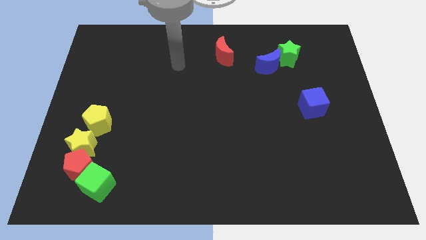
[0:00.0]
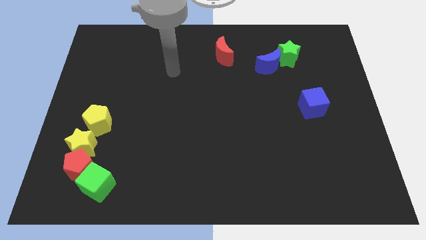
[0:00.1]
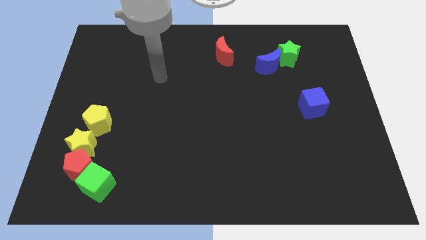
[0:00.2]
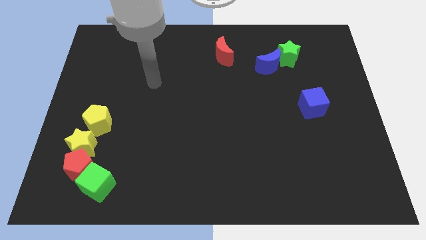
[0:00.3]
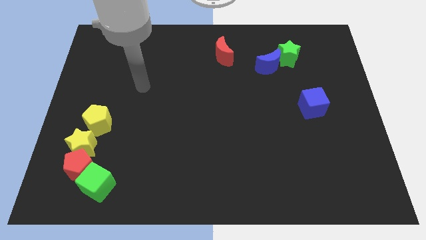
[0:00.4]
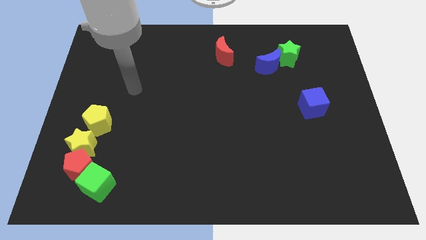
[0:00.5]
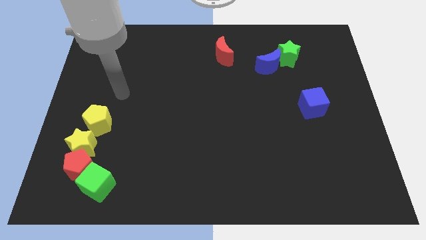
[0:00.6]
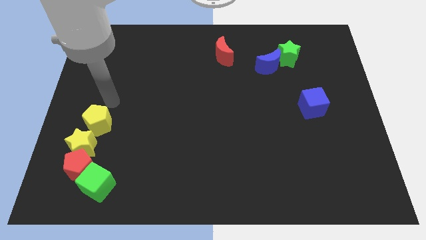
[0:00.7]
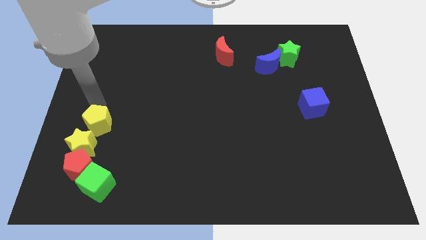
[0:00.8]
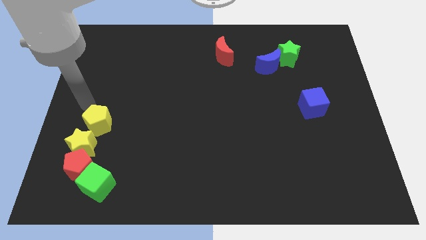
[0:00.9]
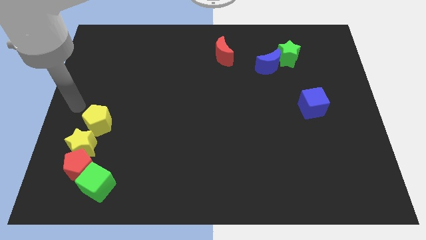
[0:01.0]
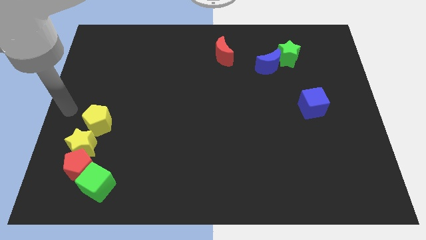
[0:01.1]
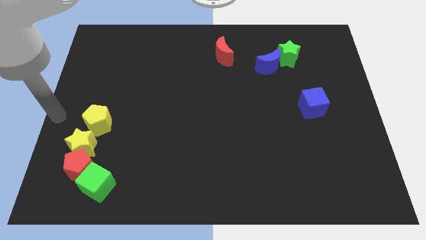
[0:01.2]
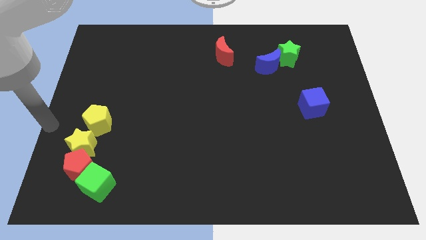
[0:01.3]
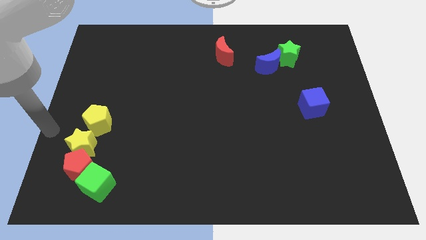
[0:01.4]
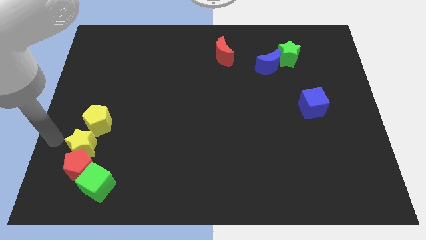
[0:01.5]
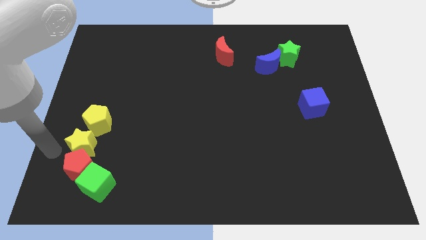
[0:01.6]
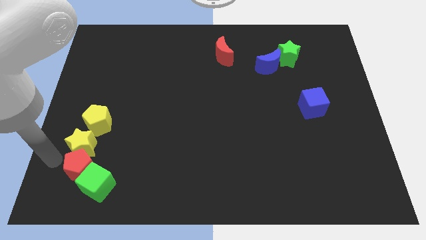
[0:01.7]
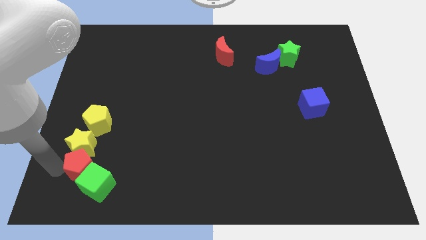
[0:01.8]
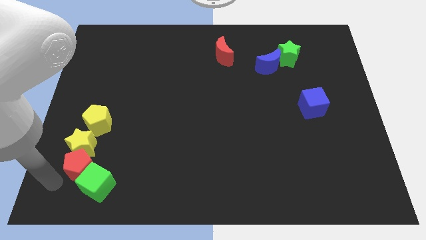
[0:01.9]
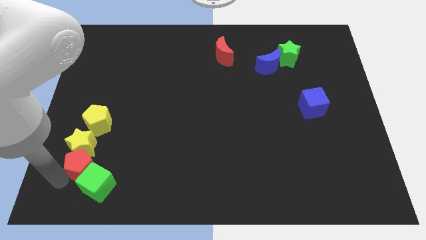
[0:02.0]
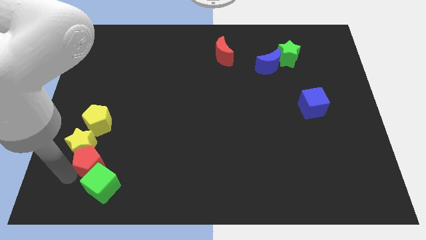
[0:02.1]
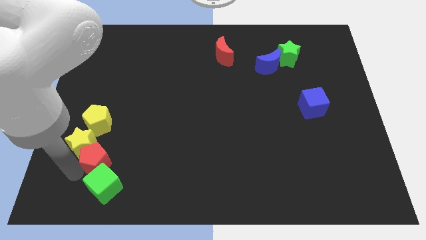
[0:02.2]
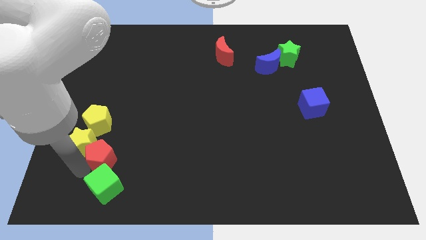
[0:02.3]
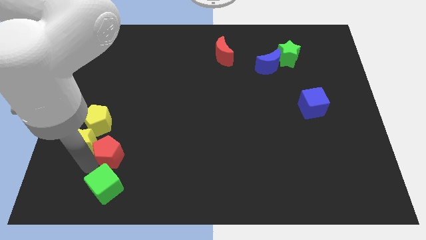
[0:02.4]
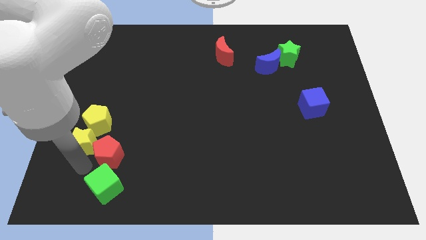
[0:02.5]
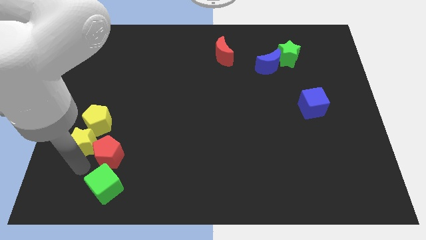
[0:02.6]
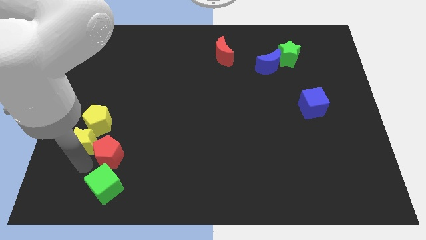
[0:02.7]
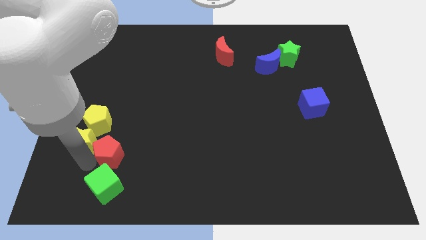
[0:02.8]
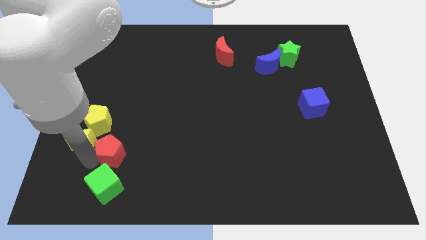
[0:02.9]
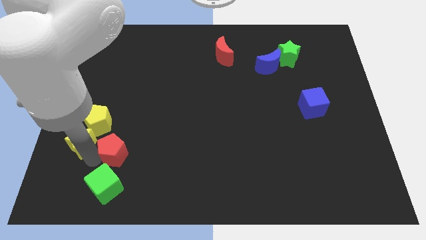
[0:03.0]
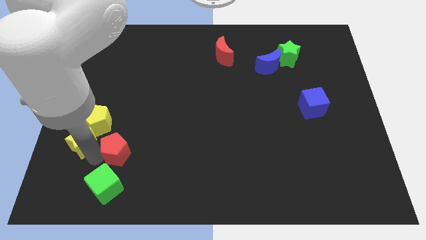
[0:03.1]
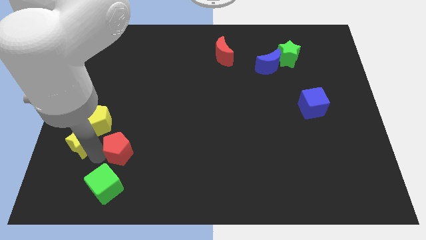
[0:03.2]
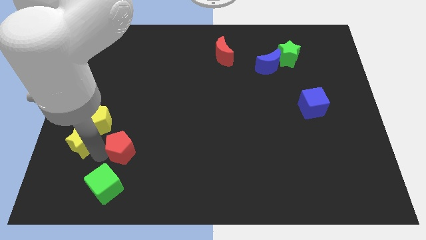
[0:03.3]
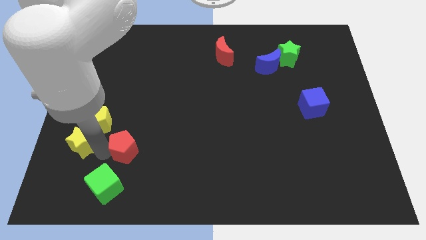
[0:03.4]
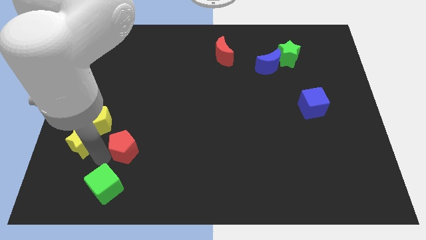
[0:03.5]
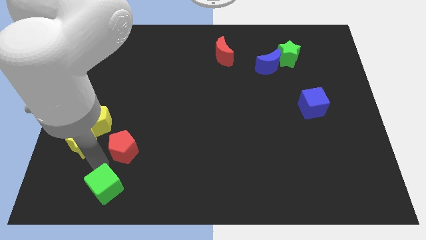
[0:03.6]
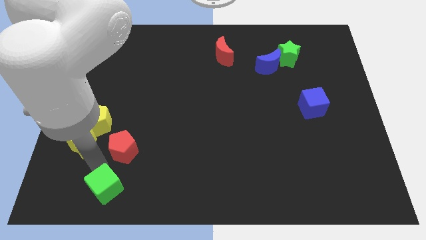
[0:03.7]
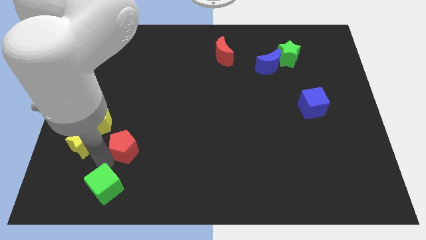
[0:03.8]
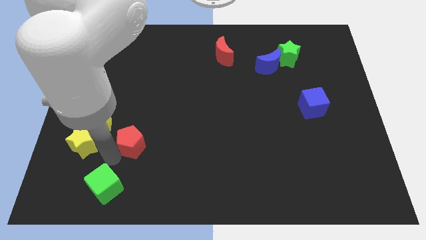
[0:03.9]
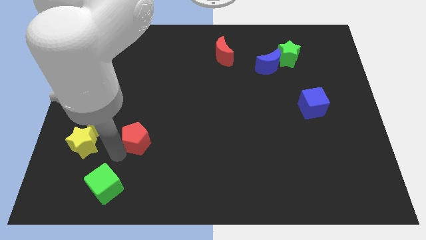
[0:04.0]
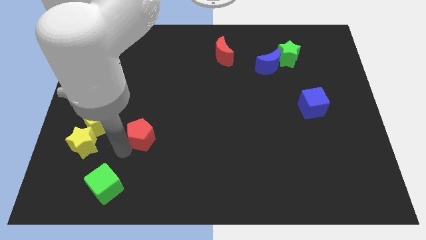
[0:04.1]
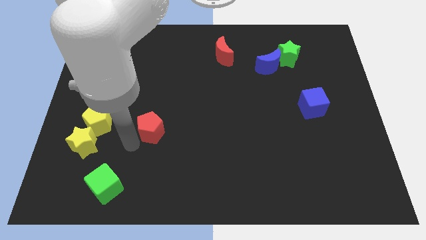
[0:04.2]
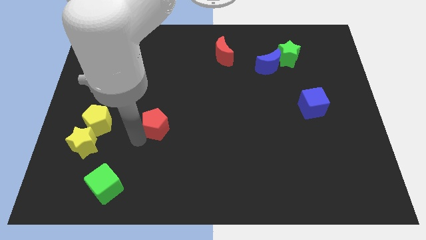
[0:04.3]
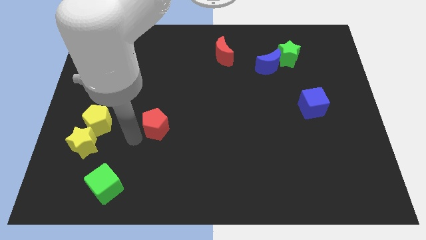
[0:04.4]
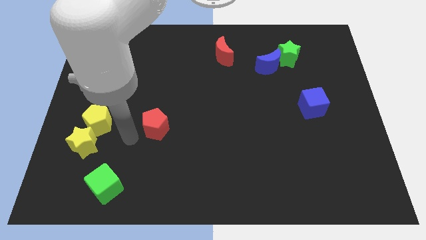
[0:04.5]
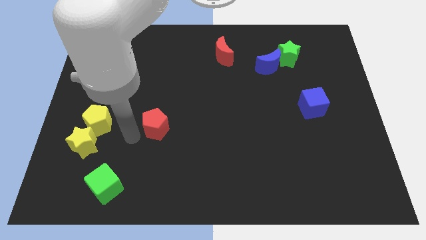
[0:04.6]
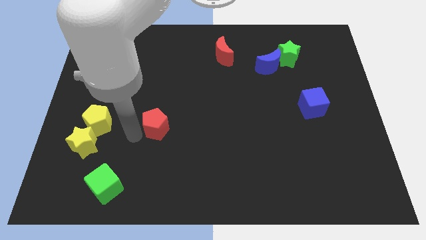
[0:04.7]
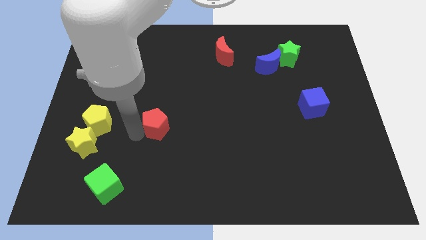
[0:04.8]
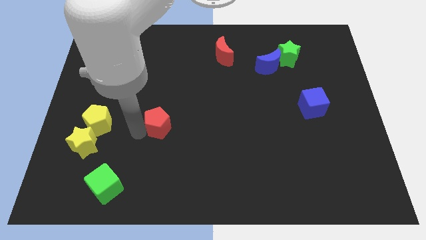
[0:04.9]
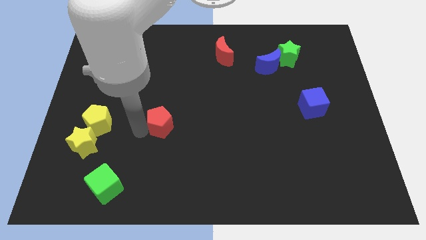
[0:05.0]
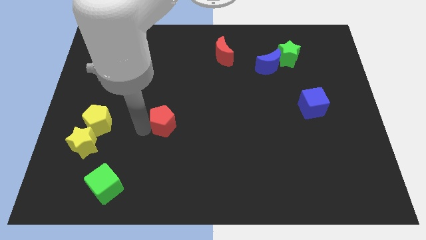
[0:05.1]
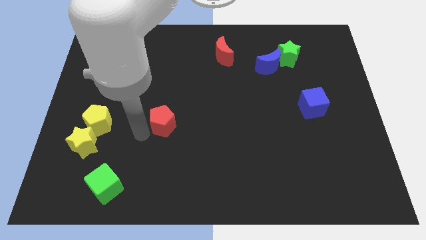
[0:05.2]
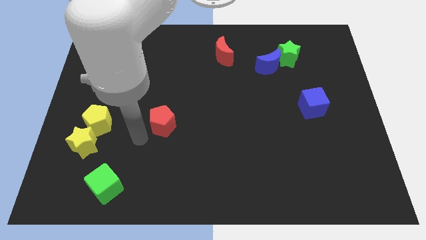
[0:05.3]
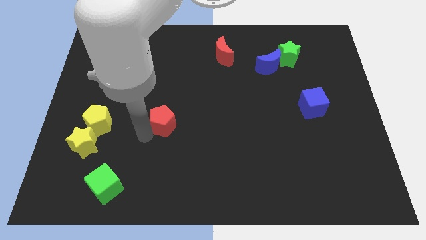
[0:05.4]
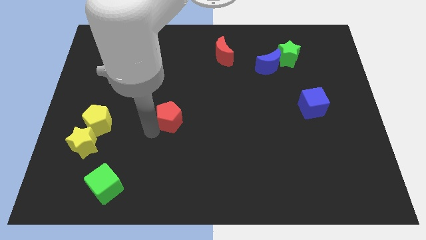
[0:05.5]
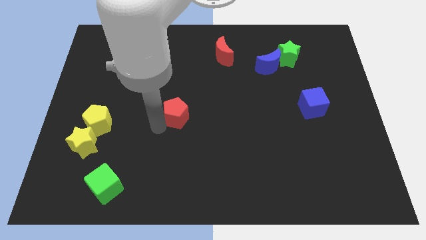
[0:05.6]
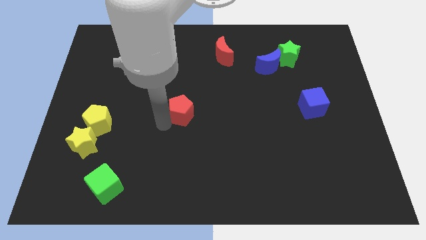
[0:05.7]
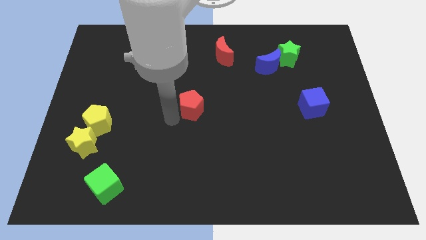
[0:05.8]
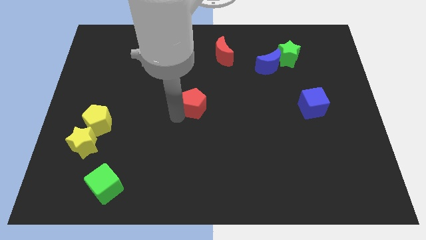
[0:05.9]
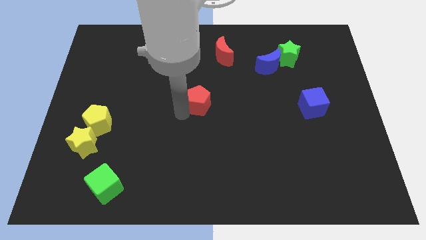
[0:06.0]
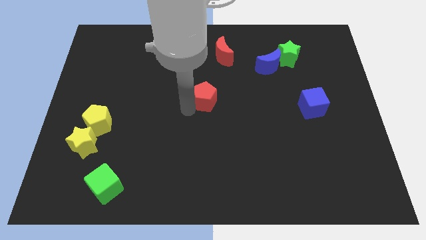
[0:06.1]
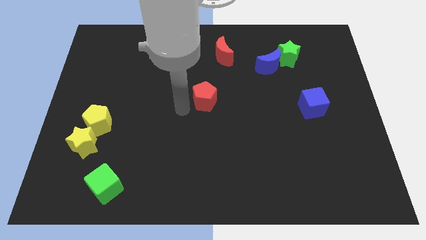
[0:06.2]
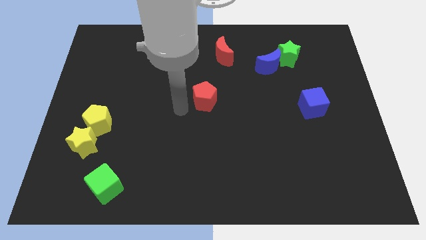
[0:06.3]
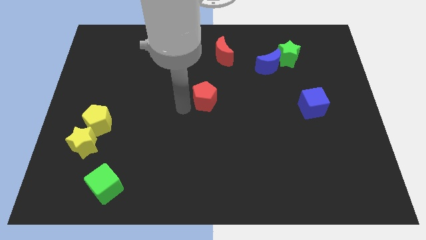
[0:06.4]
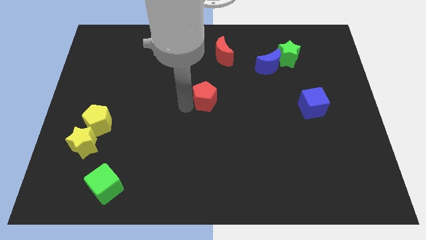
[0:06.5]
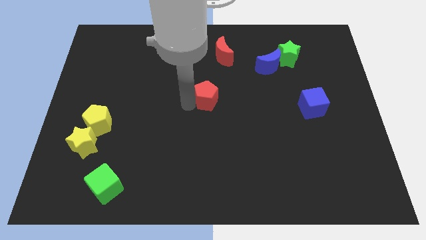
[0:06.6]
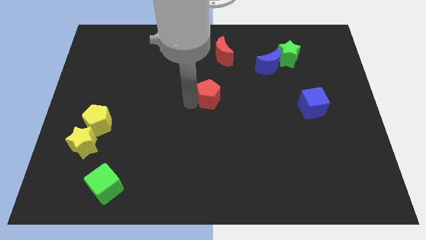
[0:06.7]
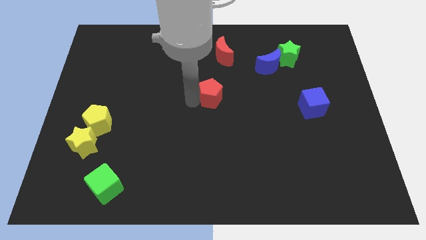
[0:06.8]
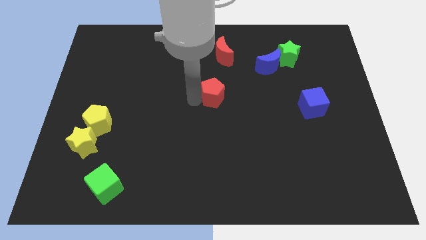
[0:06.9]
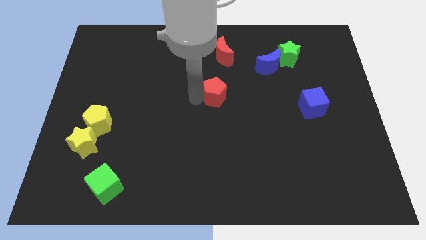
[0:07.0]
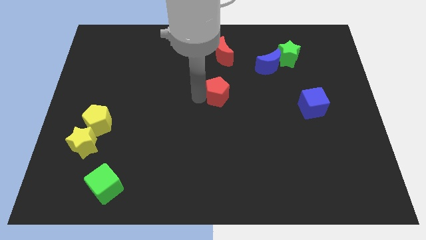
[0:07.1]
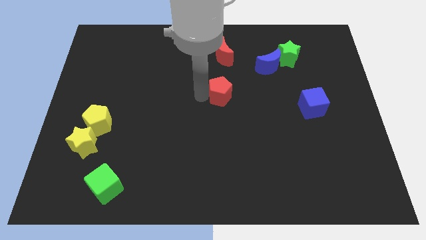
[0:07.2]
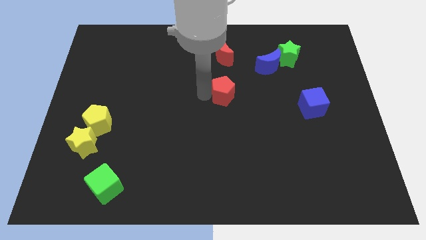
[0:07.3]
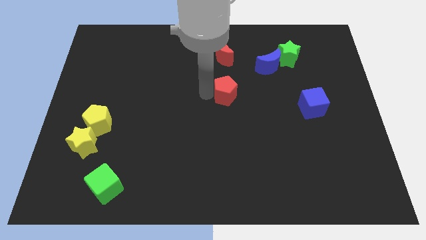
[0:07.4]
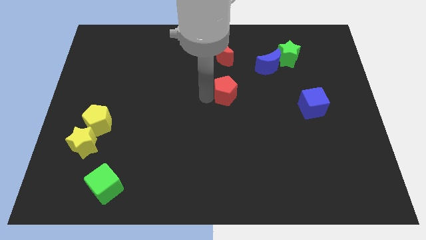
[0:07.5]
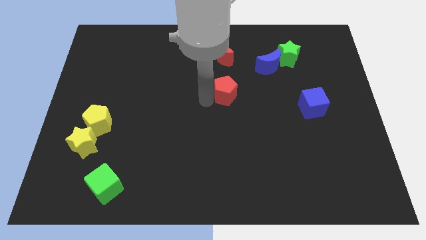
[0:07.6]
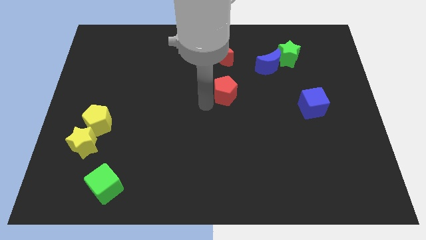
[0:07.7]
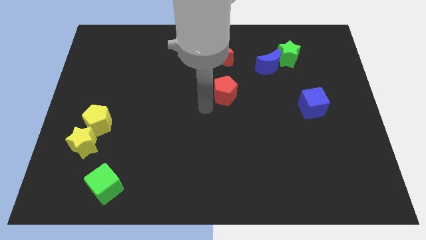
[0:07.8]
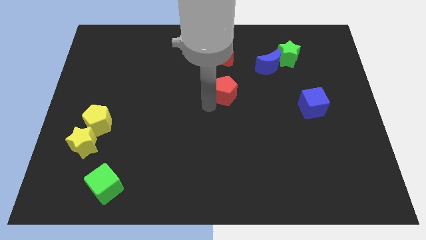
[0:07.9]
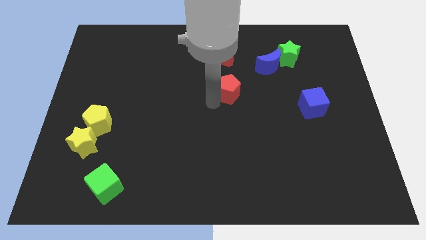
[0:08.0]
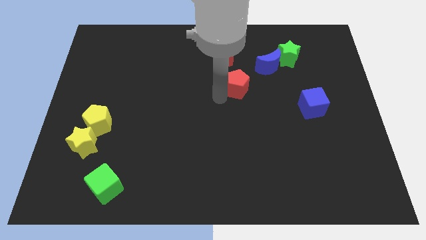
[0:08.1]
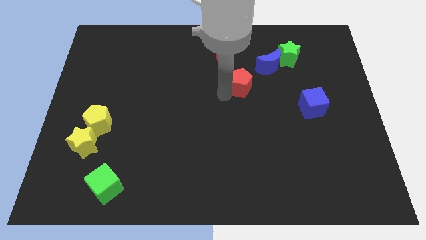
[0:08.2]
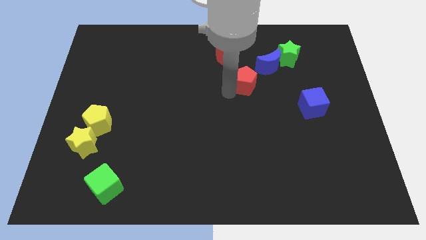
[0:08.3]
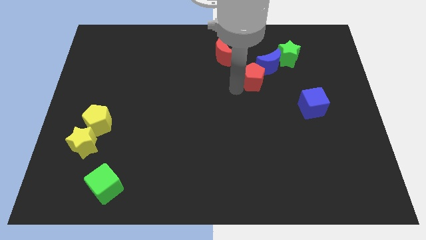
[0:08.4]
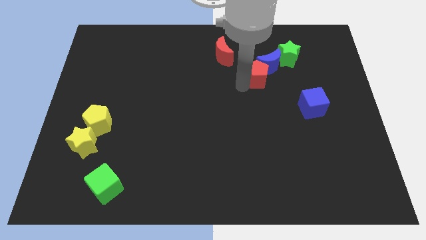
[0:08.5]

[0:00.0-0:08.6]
slide the red pentagon towards the blue moon
